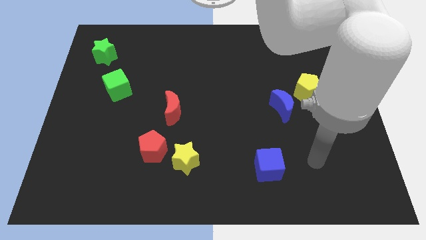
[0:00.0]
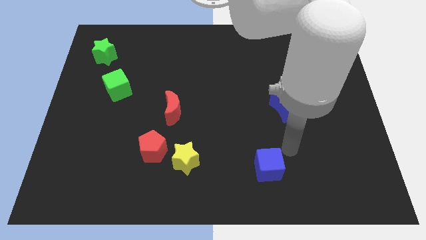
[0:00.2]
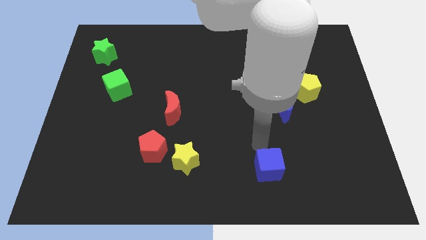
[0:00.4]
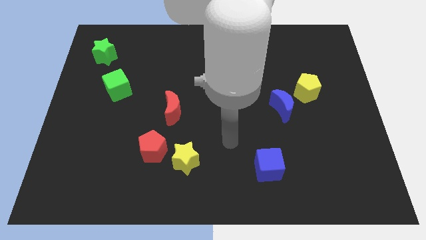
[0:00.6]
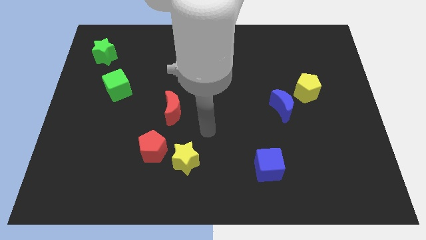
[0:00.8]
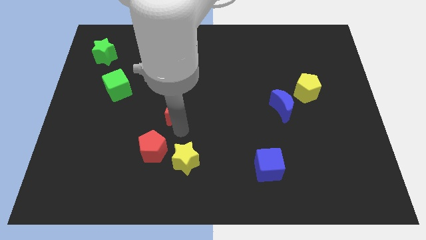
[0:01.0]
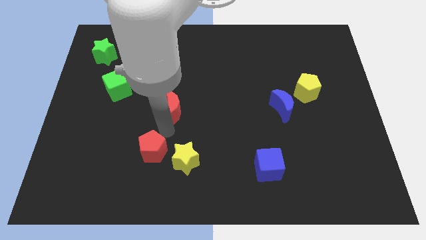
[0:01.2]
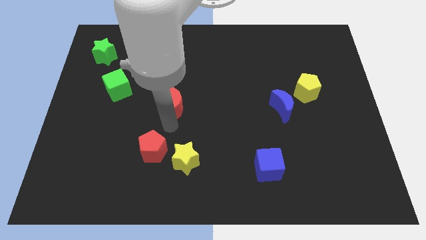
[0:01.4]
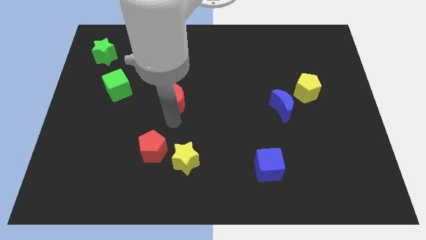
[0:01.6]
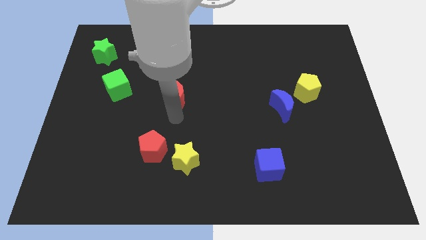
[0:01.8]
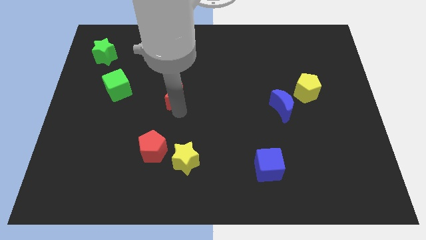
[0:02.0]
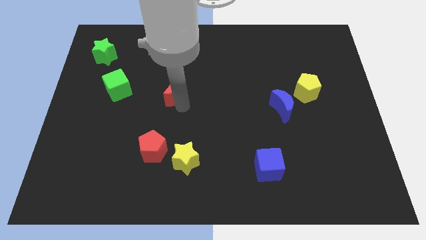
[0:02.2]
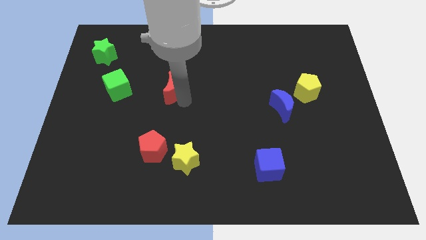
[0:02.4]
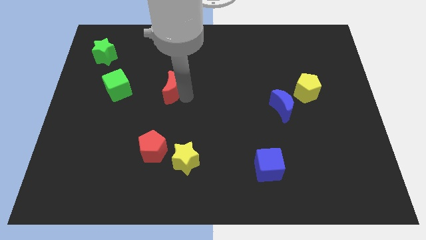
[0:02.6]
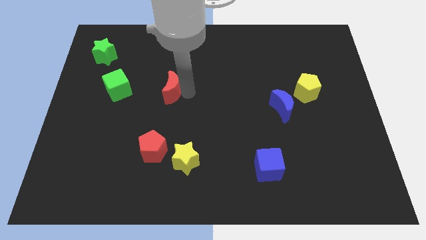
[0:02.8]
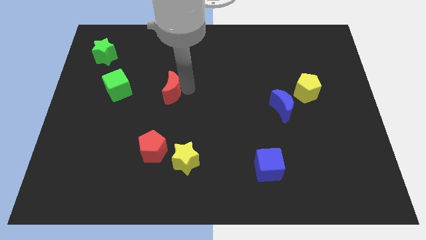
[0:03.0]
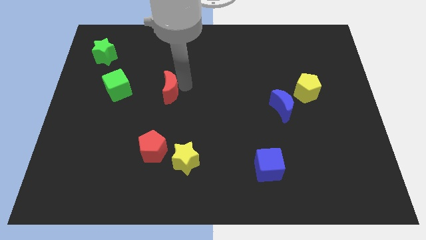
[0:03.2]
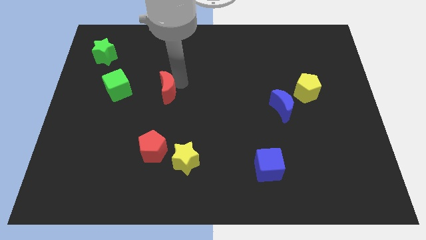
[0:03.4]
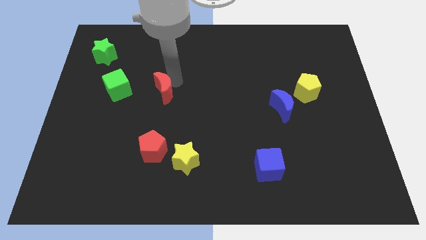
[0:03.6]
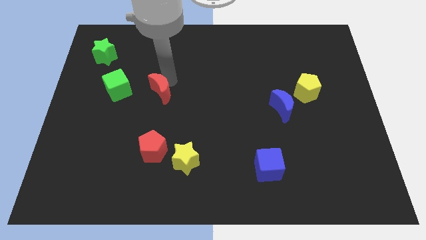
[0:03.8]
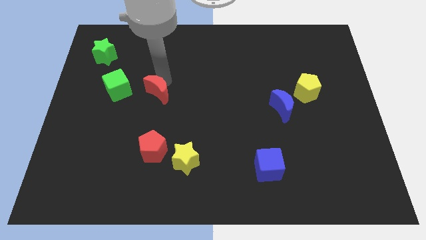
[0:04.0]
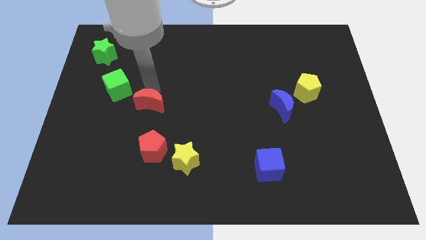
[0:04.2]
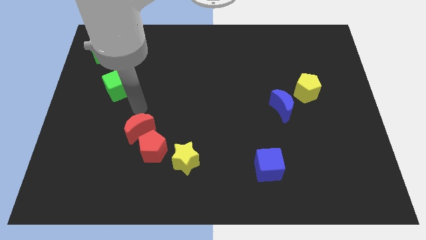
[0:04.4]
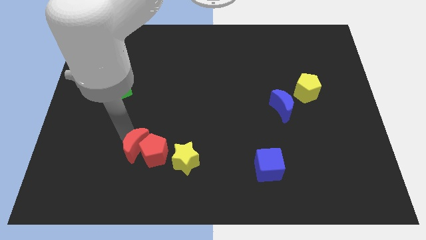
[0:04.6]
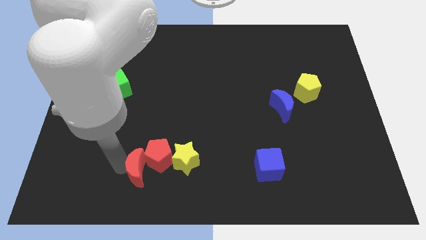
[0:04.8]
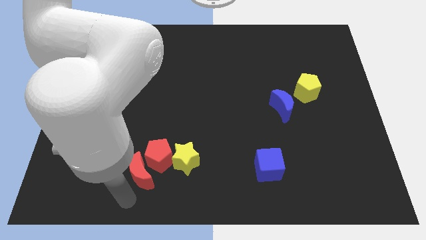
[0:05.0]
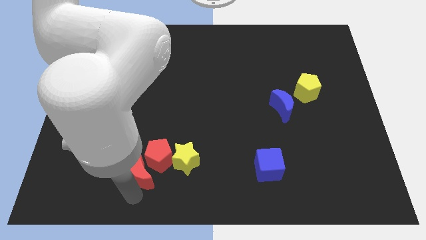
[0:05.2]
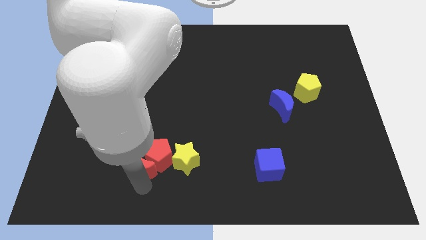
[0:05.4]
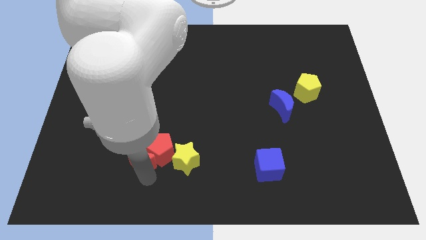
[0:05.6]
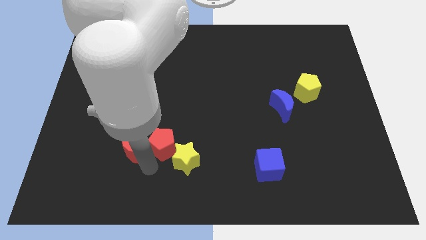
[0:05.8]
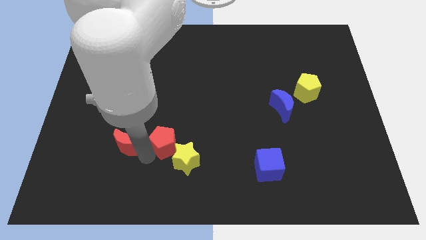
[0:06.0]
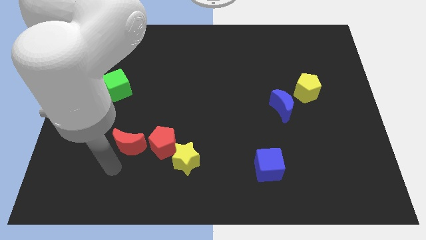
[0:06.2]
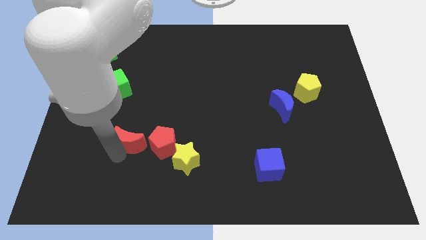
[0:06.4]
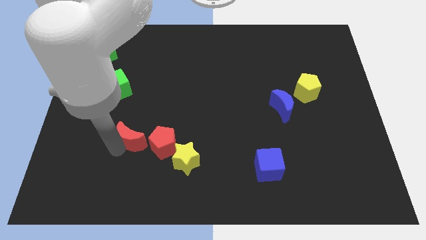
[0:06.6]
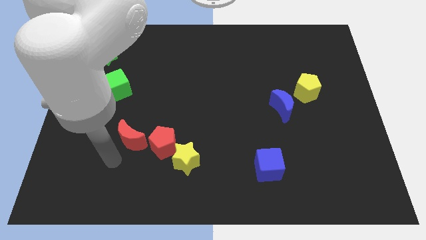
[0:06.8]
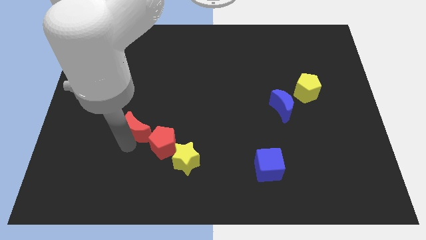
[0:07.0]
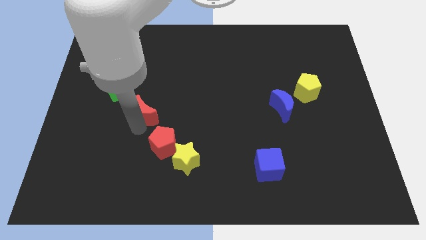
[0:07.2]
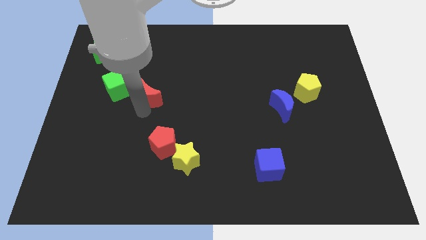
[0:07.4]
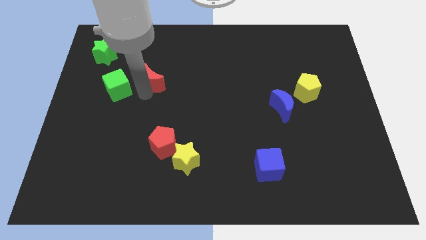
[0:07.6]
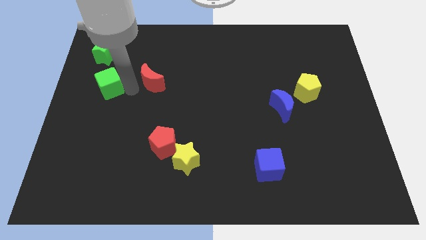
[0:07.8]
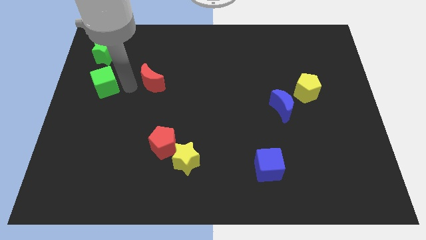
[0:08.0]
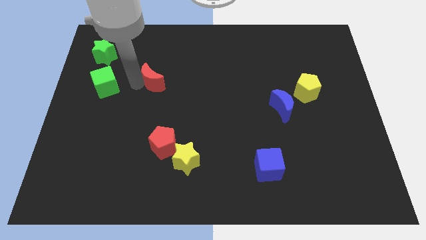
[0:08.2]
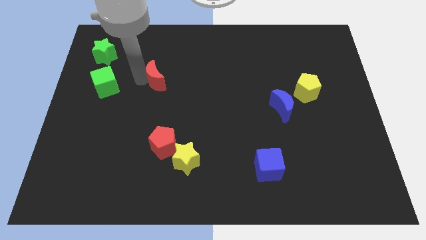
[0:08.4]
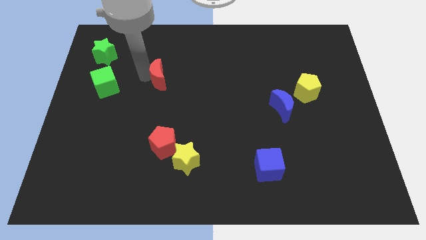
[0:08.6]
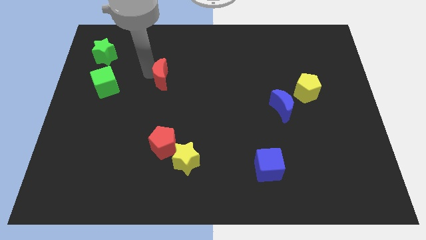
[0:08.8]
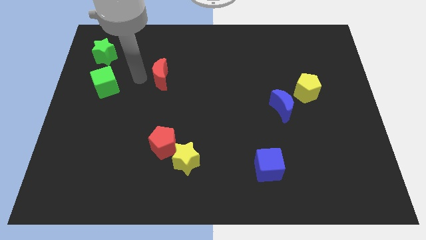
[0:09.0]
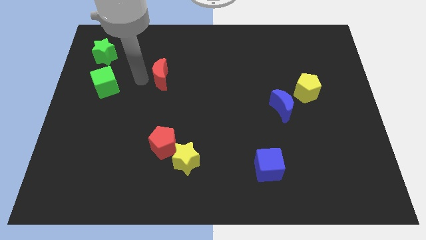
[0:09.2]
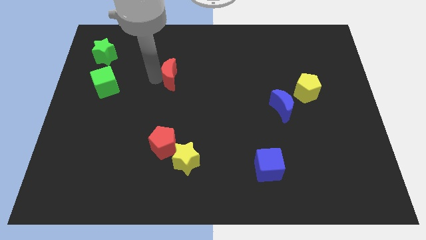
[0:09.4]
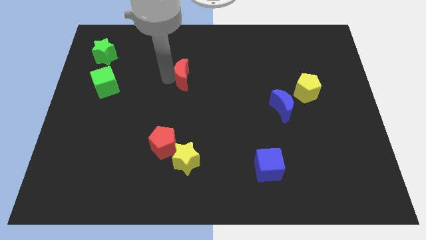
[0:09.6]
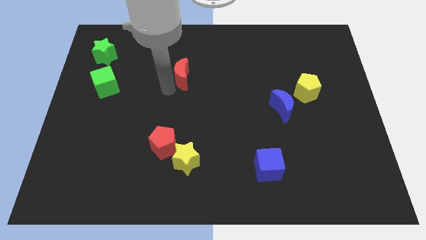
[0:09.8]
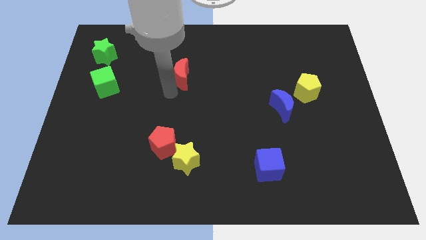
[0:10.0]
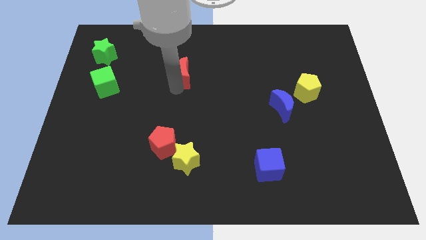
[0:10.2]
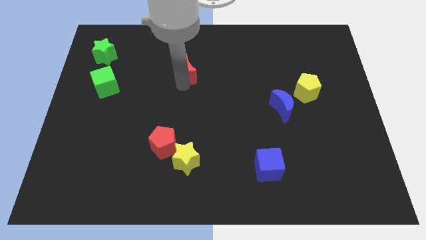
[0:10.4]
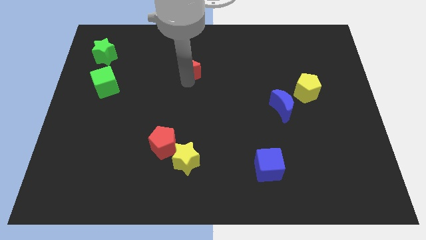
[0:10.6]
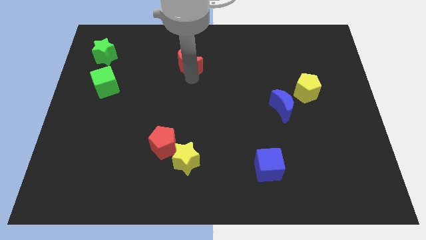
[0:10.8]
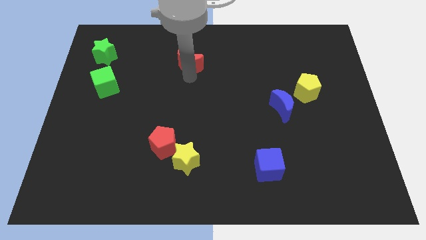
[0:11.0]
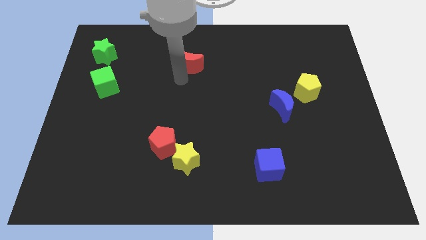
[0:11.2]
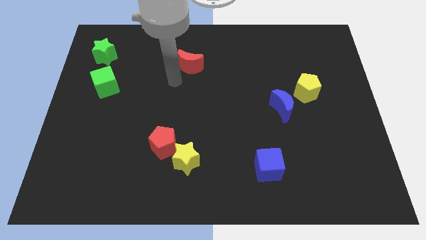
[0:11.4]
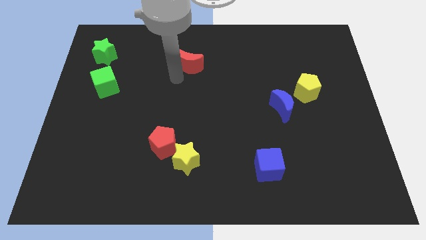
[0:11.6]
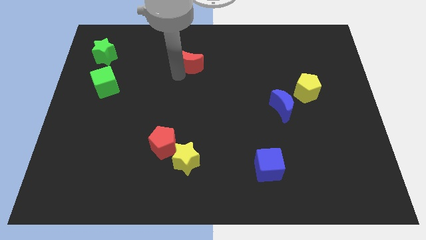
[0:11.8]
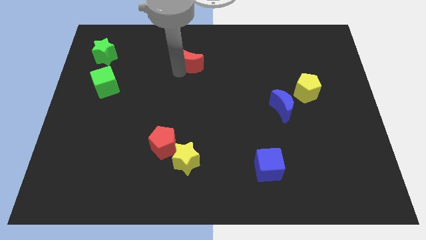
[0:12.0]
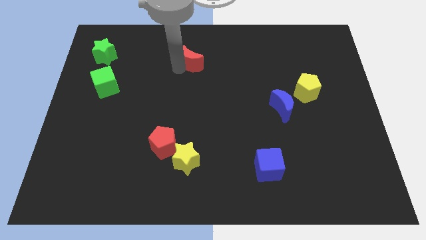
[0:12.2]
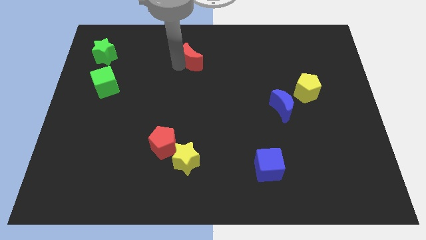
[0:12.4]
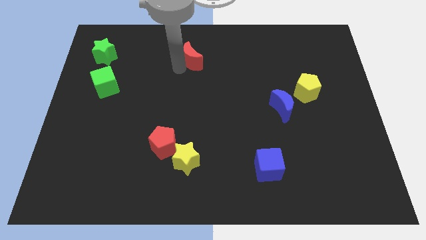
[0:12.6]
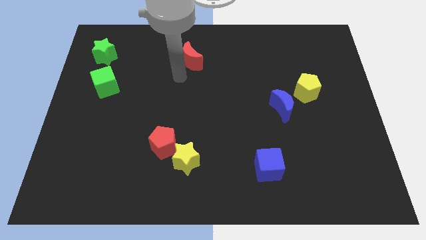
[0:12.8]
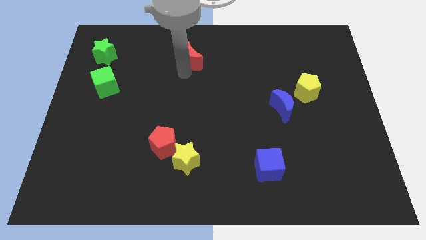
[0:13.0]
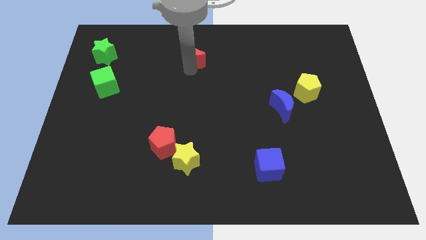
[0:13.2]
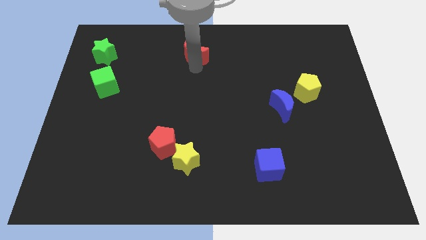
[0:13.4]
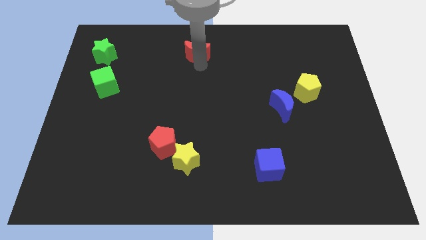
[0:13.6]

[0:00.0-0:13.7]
put the red moon to the towards your base
